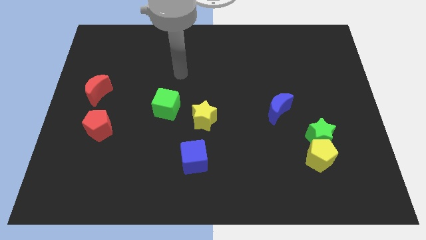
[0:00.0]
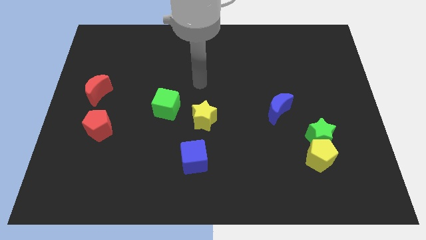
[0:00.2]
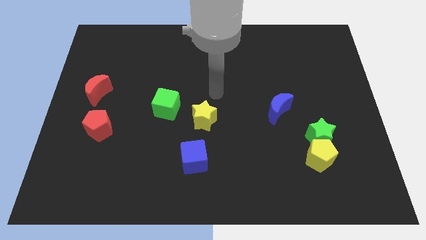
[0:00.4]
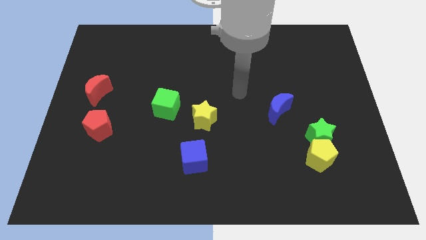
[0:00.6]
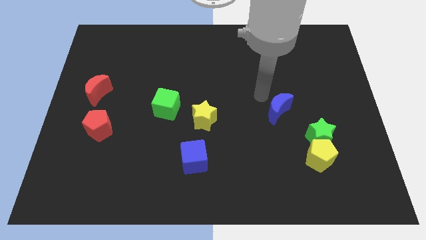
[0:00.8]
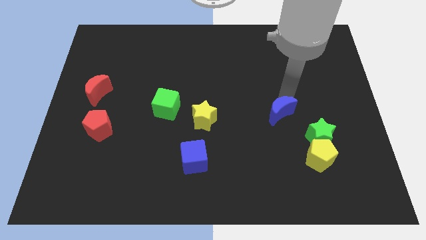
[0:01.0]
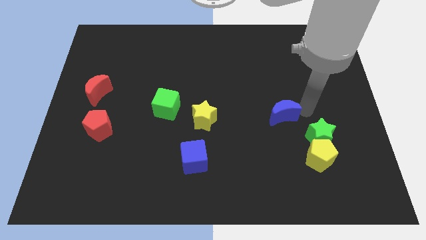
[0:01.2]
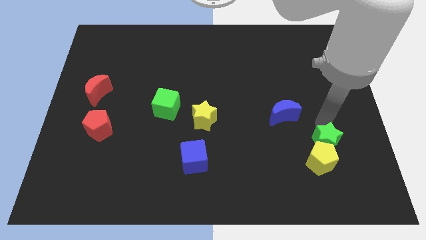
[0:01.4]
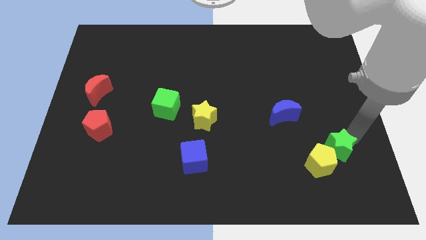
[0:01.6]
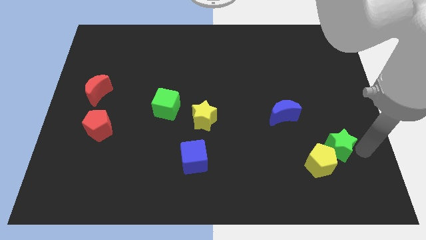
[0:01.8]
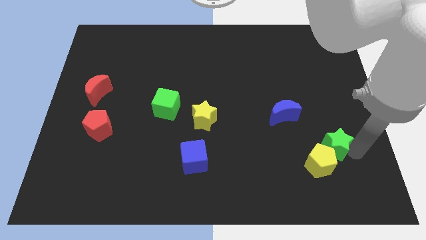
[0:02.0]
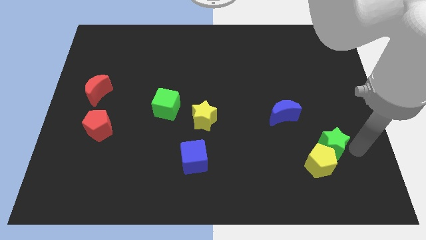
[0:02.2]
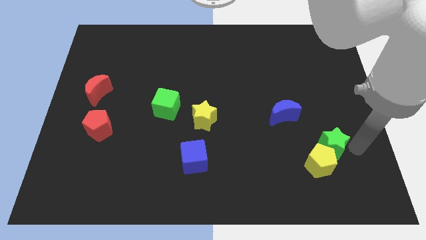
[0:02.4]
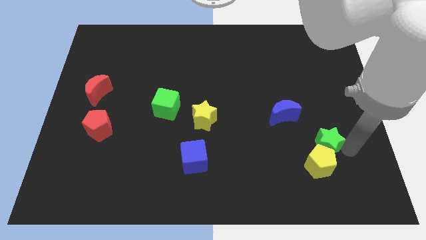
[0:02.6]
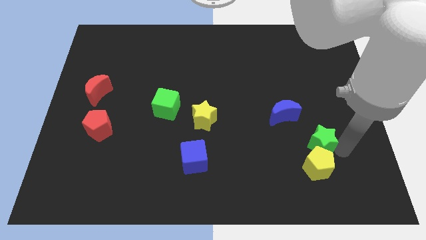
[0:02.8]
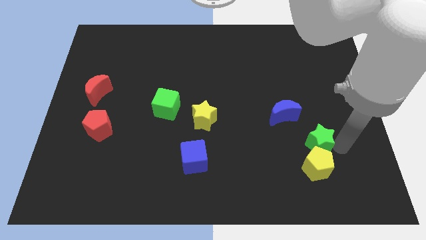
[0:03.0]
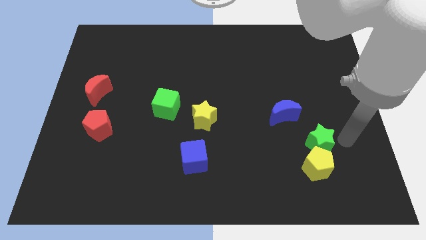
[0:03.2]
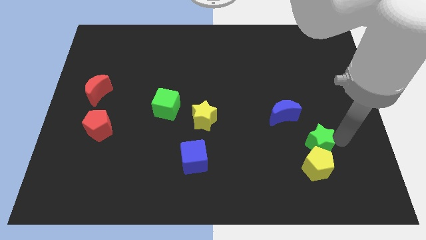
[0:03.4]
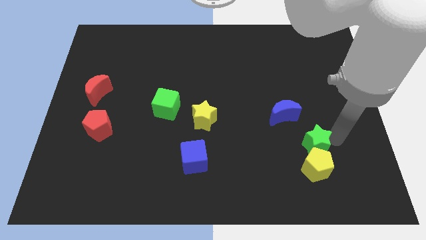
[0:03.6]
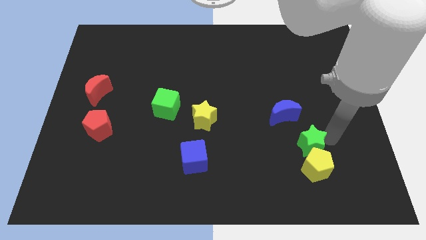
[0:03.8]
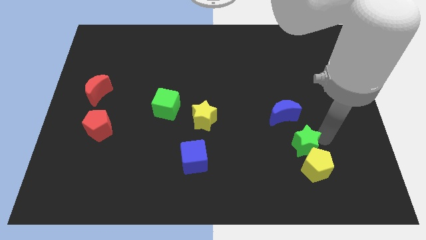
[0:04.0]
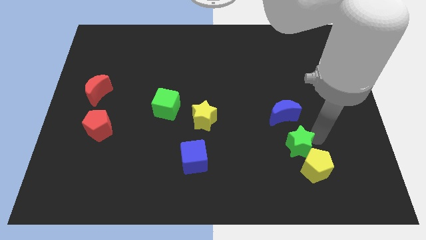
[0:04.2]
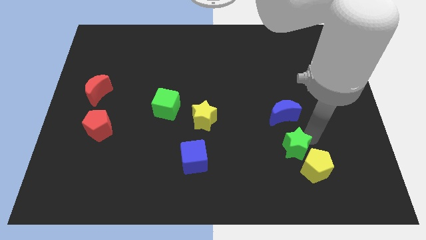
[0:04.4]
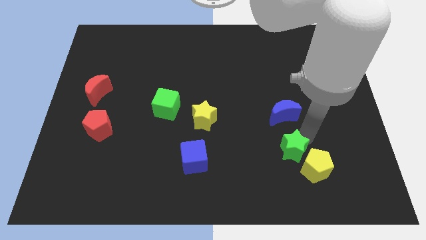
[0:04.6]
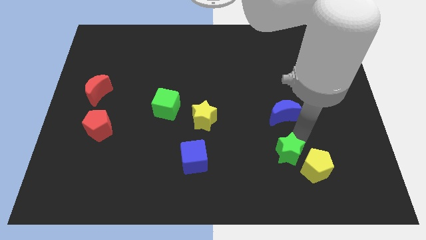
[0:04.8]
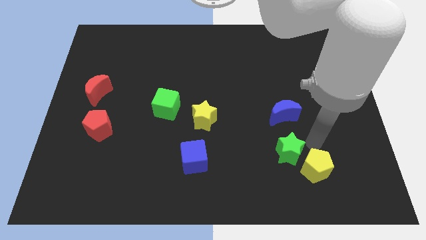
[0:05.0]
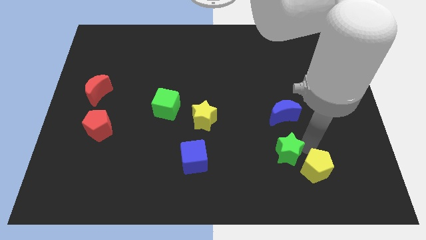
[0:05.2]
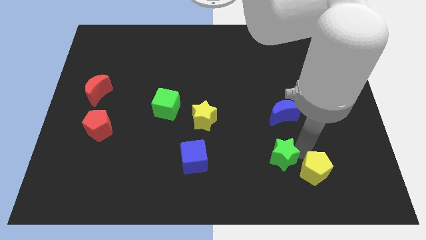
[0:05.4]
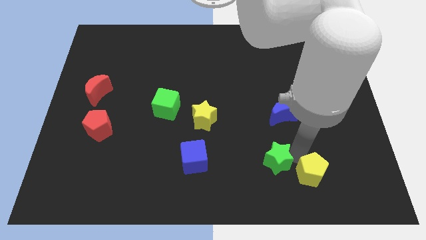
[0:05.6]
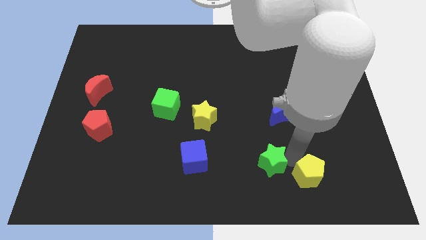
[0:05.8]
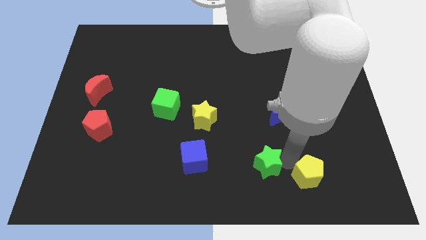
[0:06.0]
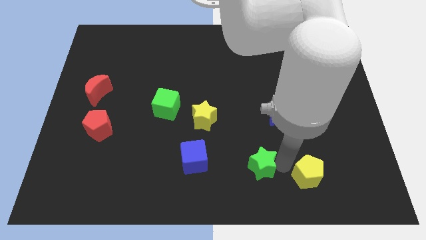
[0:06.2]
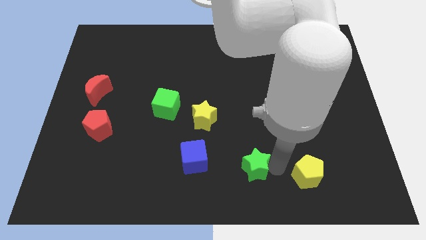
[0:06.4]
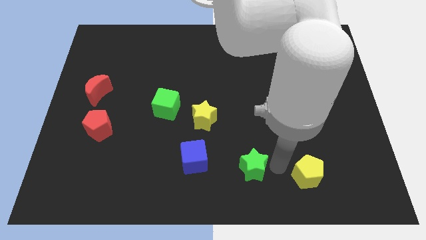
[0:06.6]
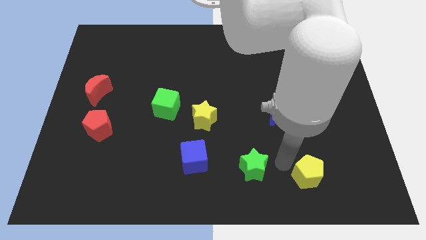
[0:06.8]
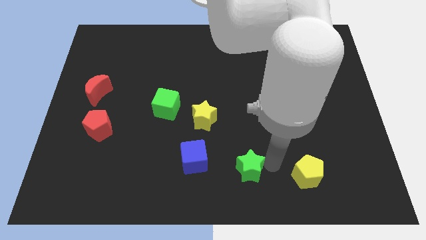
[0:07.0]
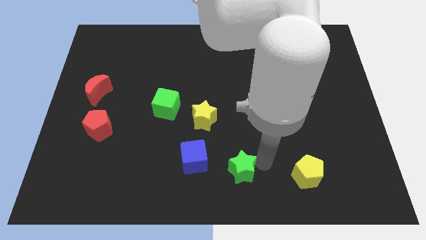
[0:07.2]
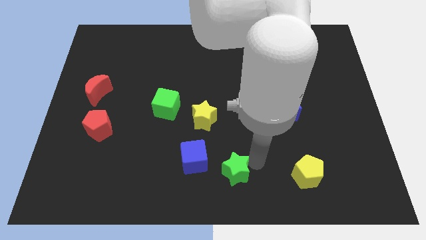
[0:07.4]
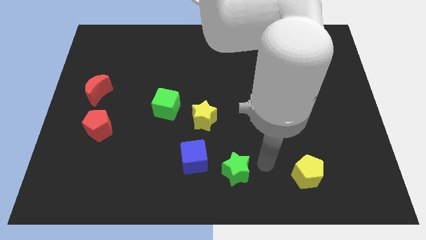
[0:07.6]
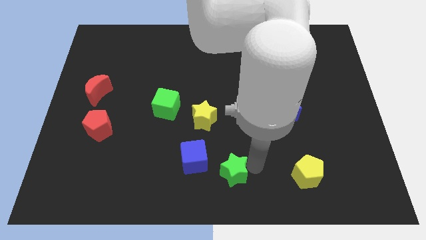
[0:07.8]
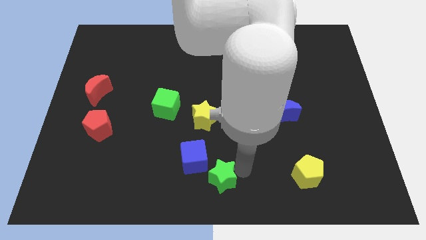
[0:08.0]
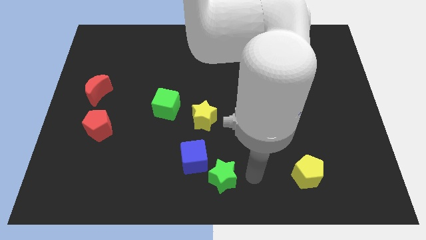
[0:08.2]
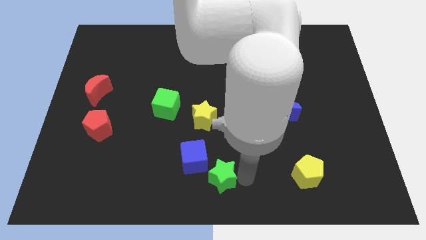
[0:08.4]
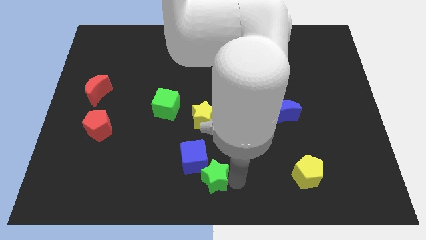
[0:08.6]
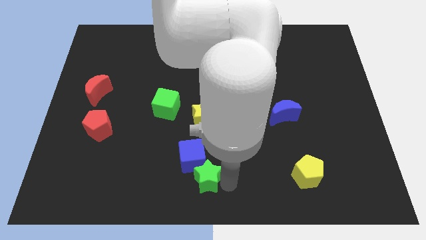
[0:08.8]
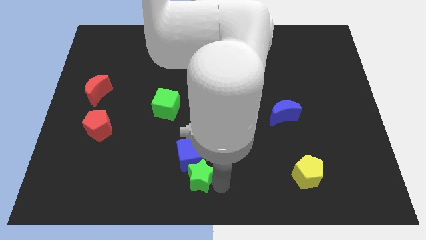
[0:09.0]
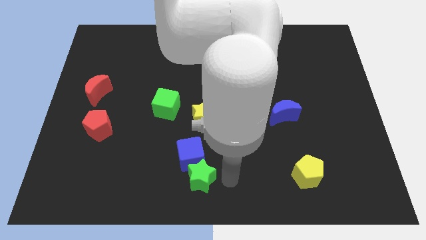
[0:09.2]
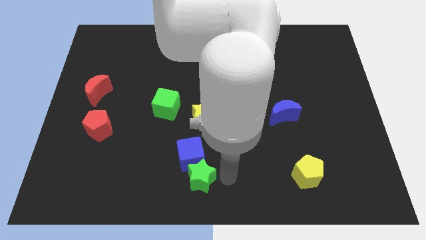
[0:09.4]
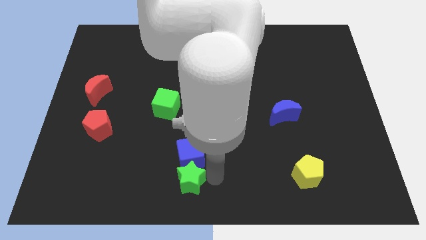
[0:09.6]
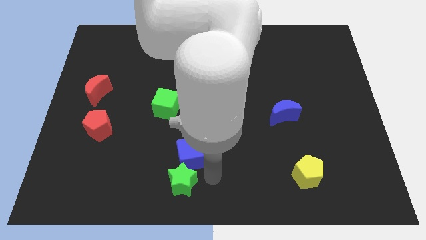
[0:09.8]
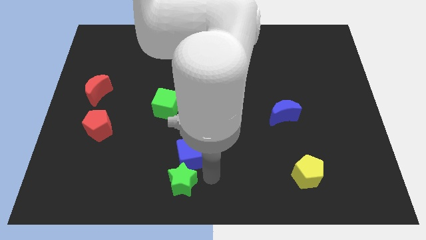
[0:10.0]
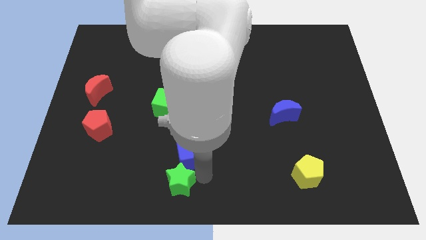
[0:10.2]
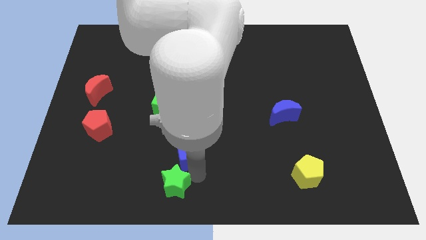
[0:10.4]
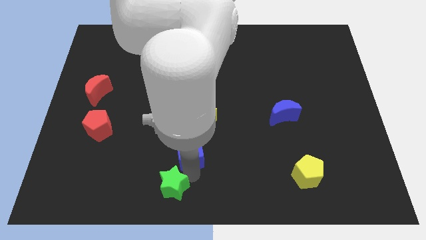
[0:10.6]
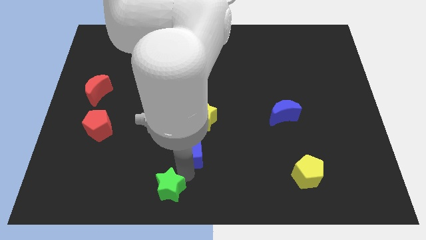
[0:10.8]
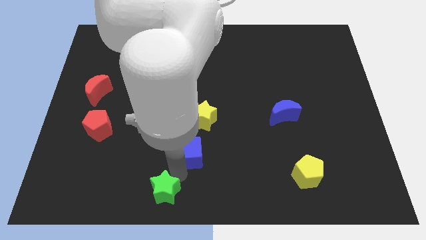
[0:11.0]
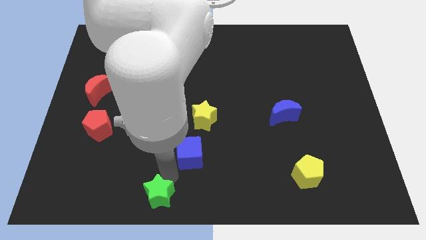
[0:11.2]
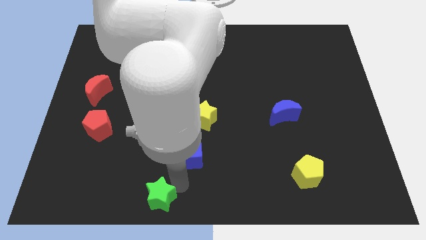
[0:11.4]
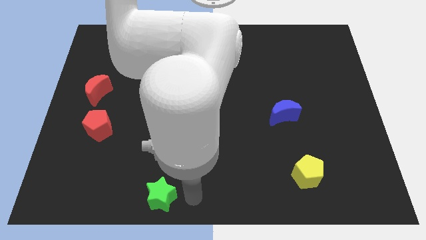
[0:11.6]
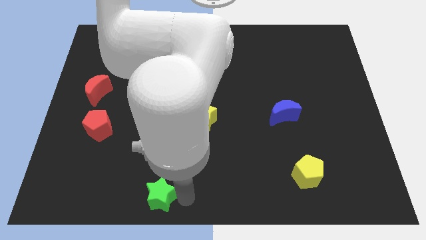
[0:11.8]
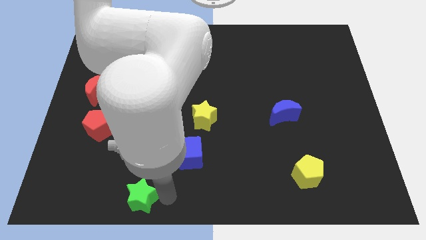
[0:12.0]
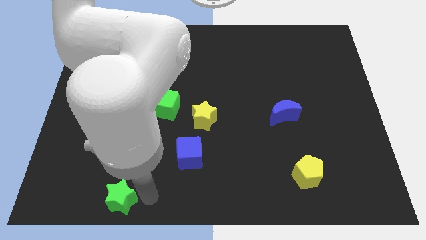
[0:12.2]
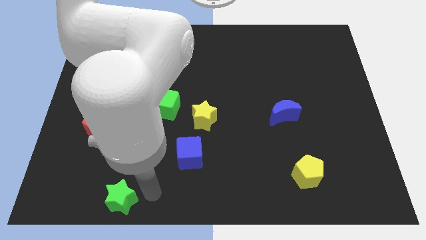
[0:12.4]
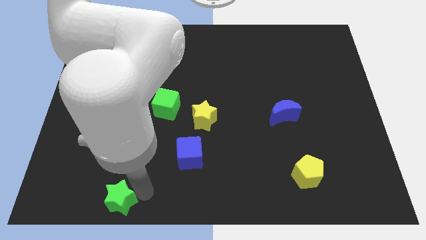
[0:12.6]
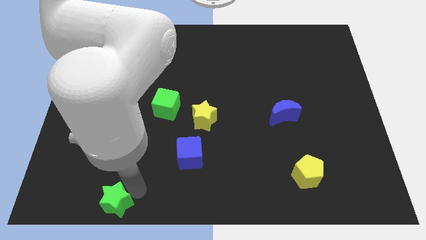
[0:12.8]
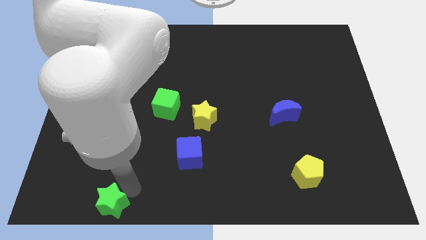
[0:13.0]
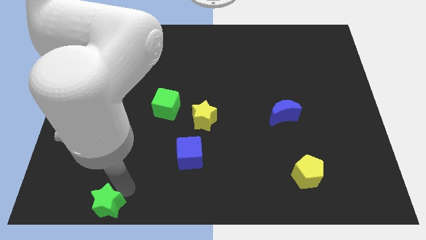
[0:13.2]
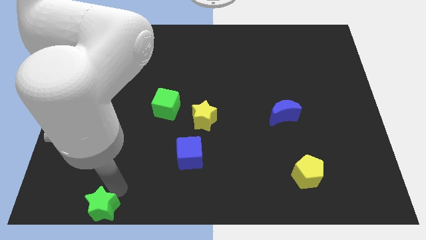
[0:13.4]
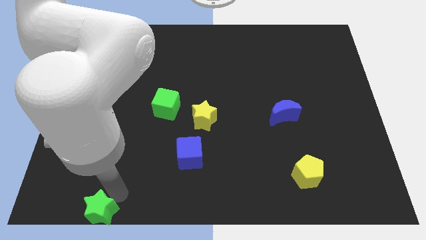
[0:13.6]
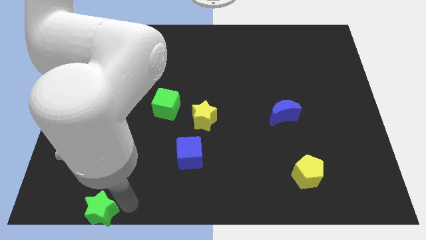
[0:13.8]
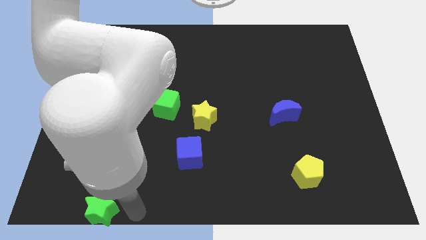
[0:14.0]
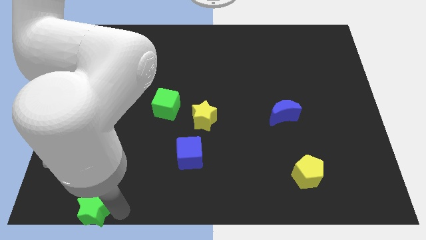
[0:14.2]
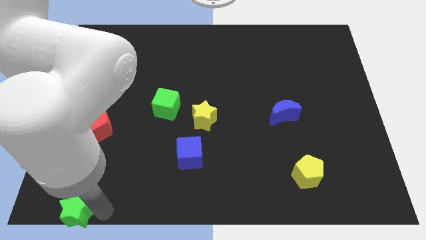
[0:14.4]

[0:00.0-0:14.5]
put the green star to the bottom left of the board

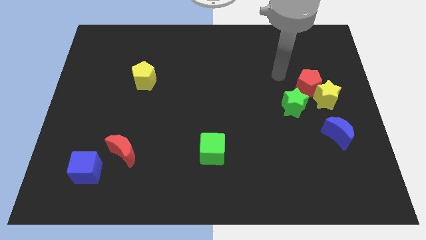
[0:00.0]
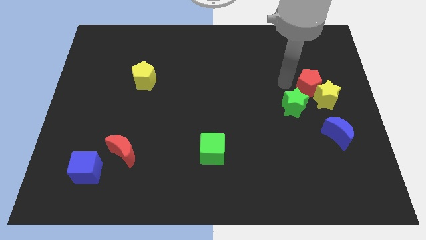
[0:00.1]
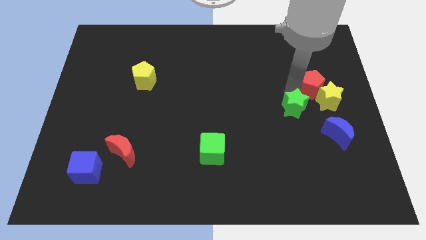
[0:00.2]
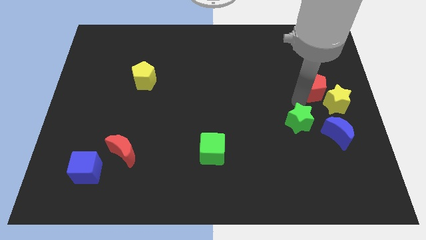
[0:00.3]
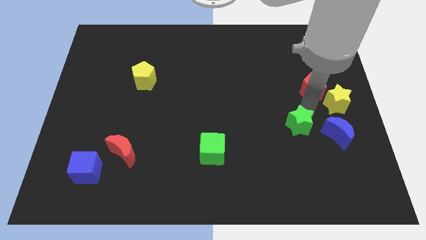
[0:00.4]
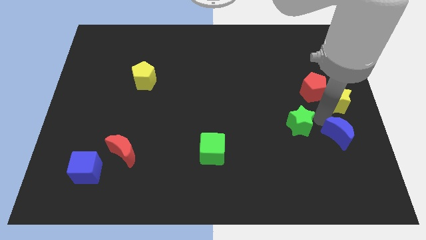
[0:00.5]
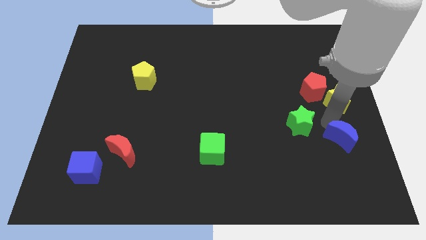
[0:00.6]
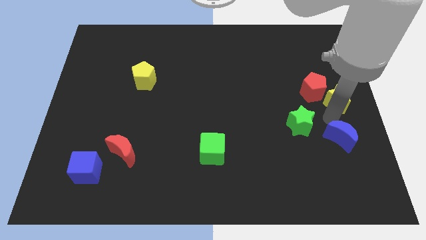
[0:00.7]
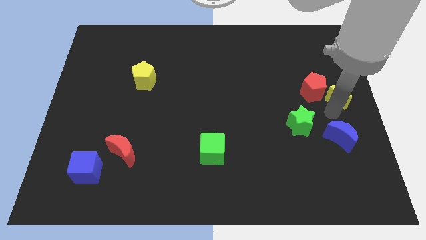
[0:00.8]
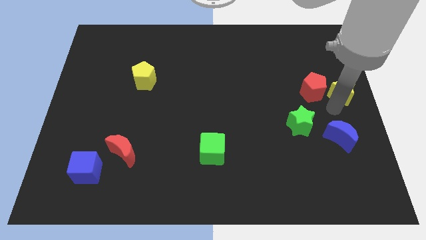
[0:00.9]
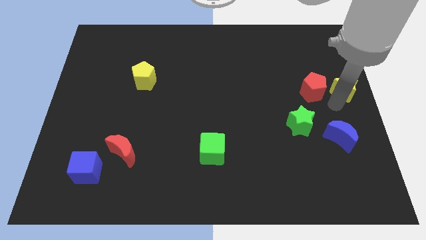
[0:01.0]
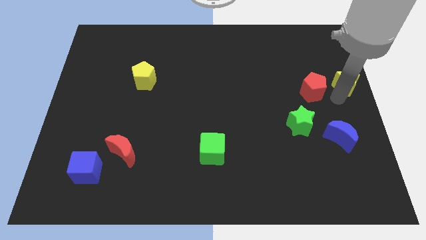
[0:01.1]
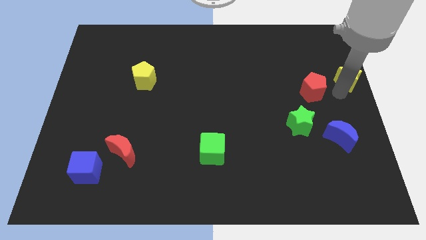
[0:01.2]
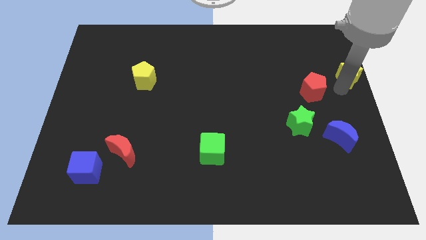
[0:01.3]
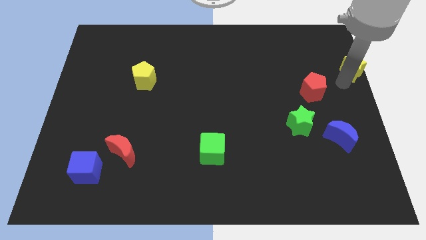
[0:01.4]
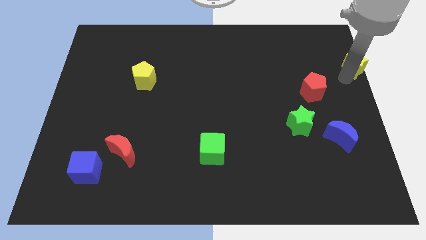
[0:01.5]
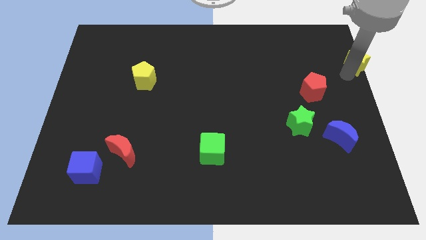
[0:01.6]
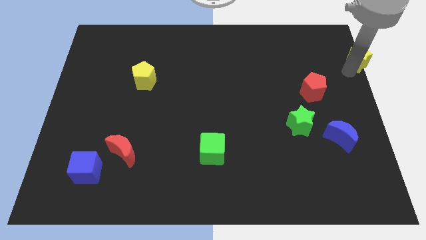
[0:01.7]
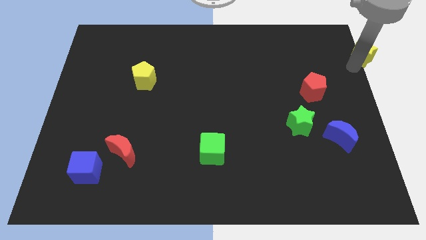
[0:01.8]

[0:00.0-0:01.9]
move the yellow star to the top right
